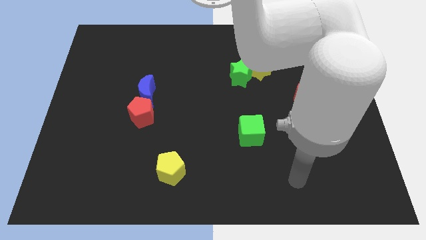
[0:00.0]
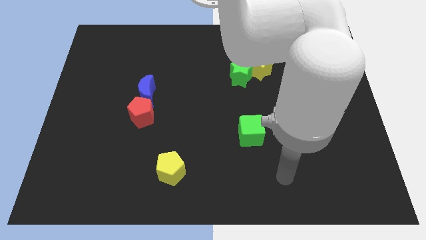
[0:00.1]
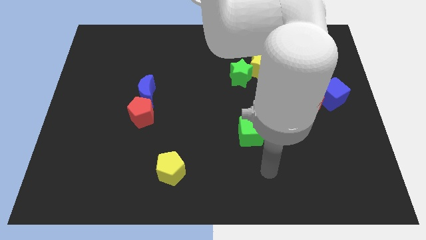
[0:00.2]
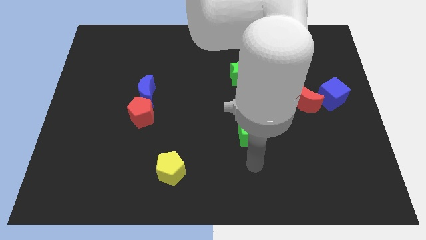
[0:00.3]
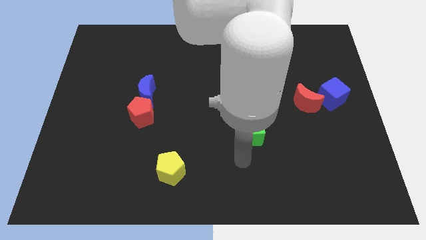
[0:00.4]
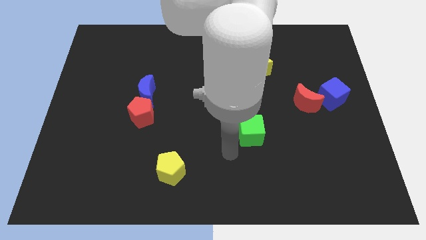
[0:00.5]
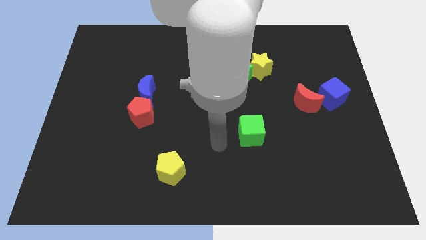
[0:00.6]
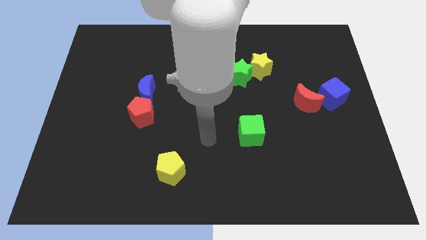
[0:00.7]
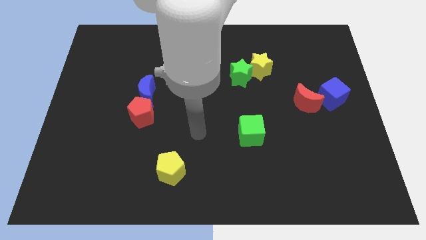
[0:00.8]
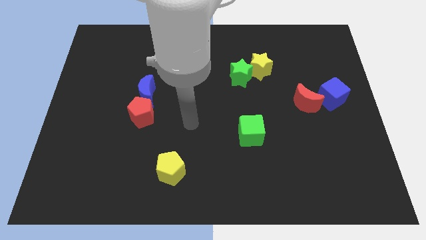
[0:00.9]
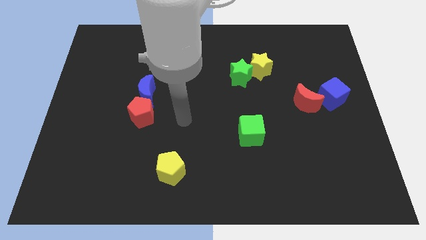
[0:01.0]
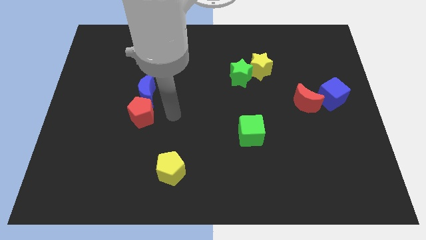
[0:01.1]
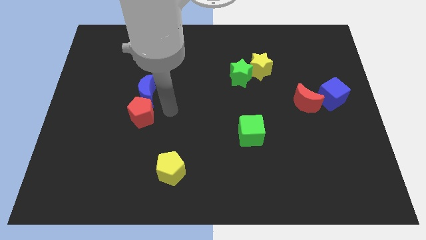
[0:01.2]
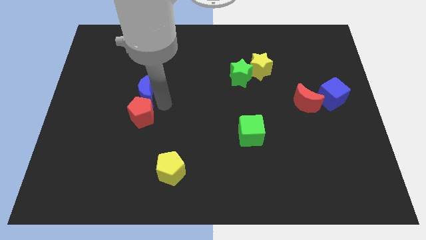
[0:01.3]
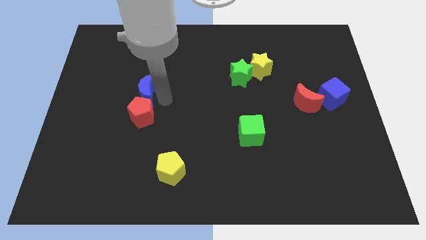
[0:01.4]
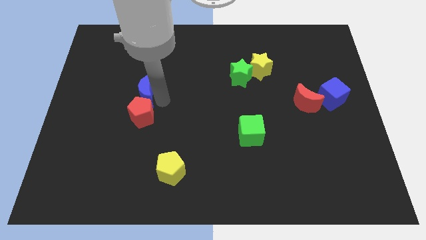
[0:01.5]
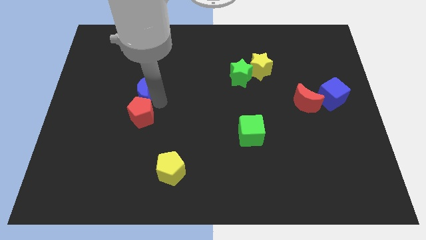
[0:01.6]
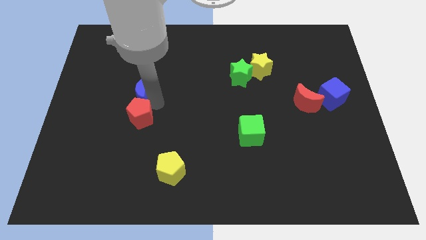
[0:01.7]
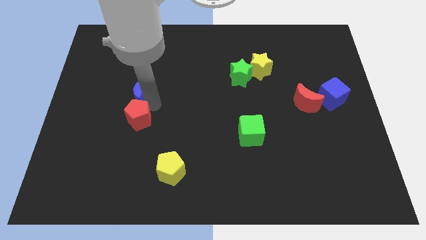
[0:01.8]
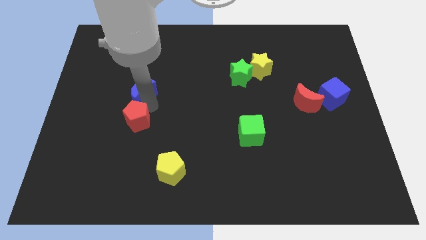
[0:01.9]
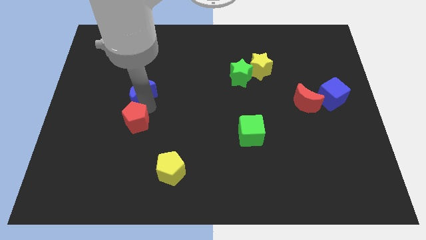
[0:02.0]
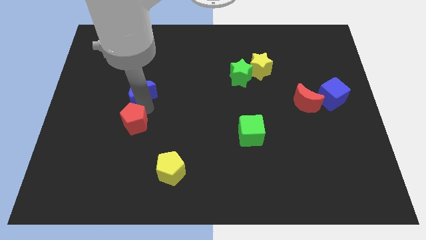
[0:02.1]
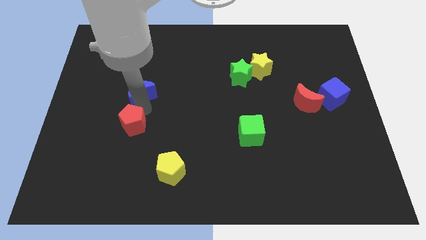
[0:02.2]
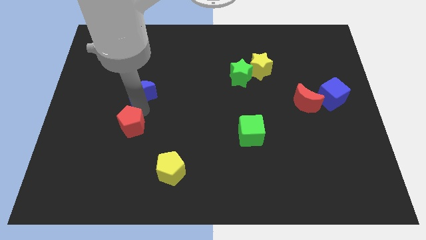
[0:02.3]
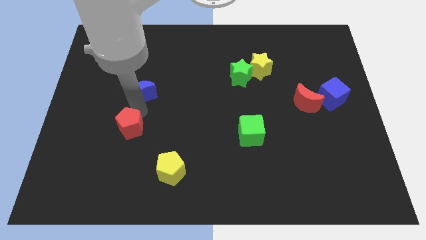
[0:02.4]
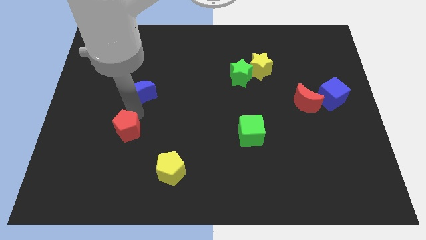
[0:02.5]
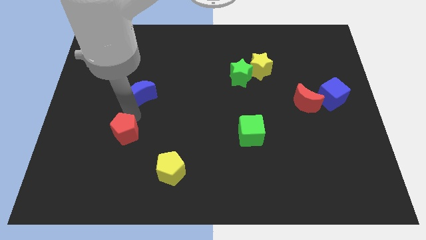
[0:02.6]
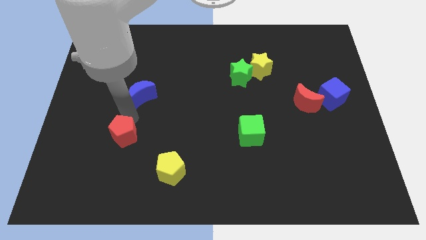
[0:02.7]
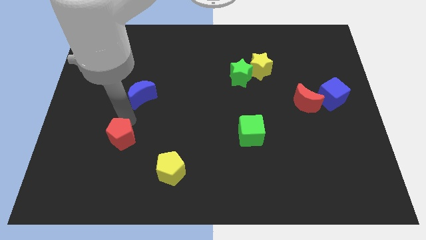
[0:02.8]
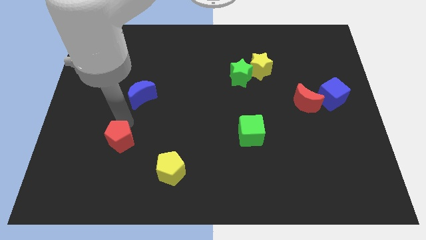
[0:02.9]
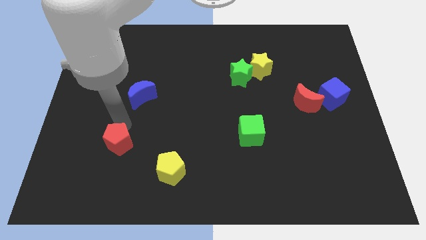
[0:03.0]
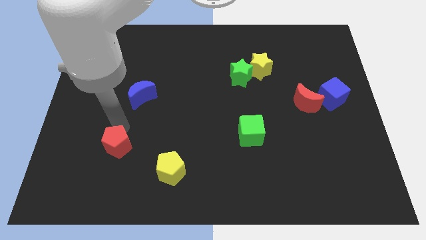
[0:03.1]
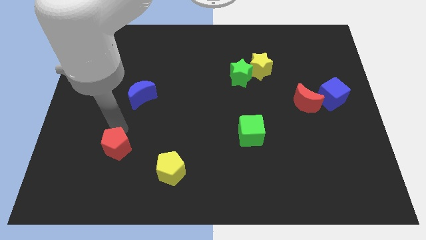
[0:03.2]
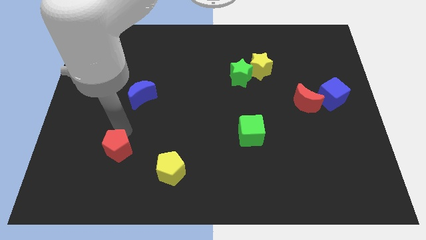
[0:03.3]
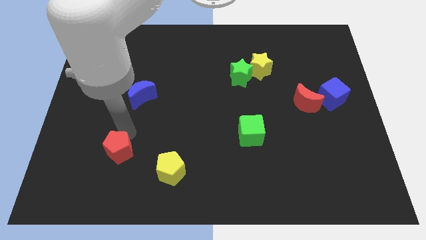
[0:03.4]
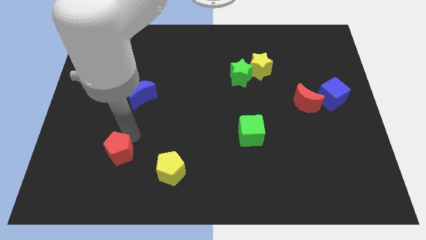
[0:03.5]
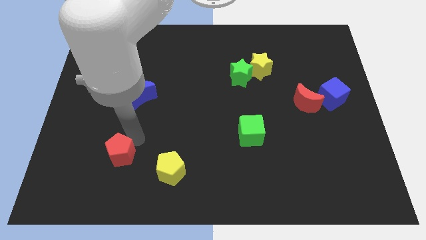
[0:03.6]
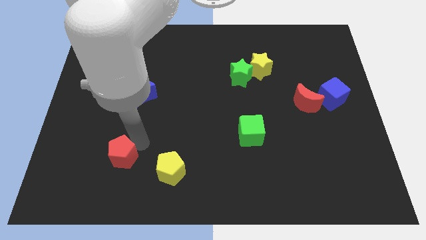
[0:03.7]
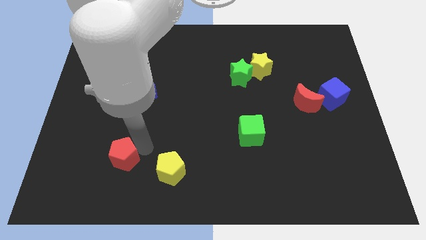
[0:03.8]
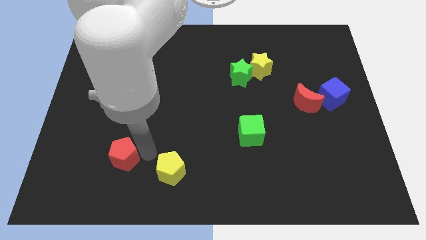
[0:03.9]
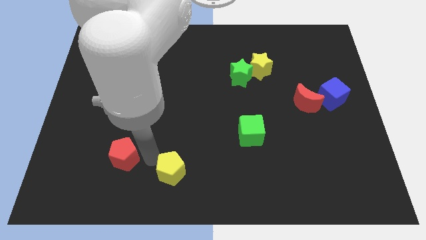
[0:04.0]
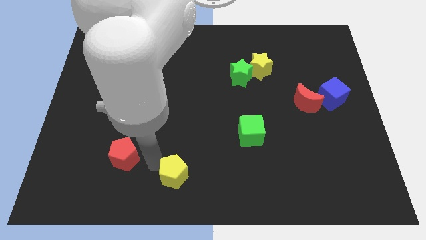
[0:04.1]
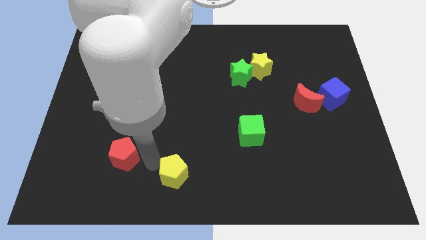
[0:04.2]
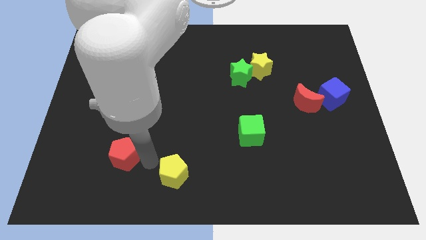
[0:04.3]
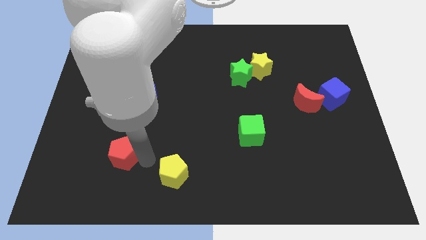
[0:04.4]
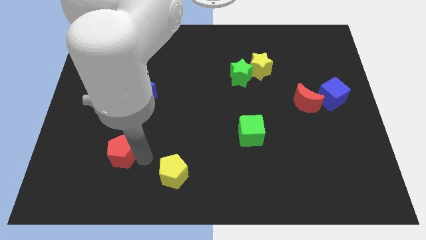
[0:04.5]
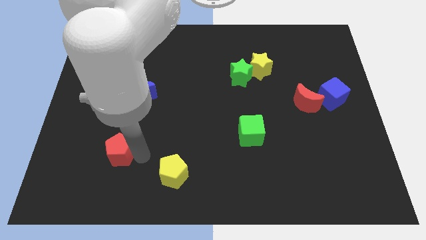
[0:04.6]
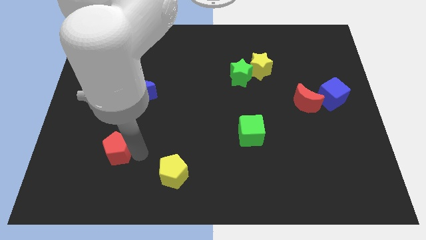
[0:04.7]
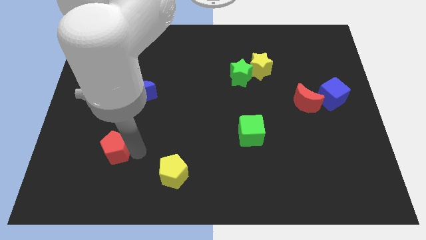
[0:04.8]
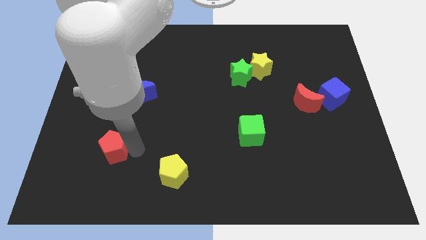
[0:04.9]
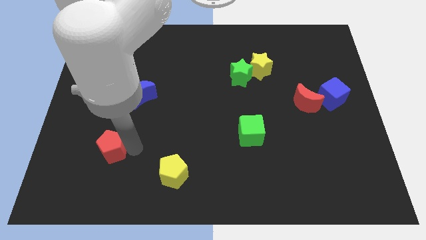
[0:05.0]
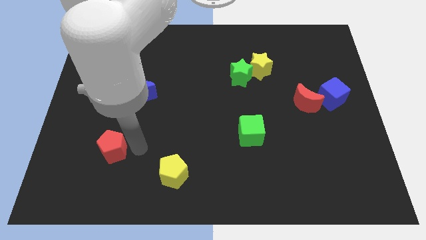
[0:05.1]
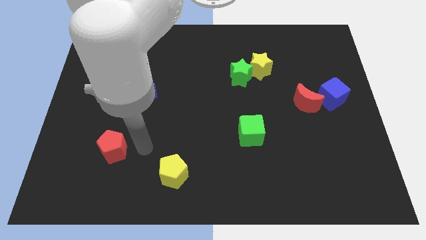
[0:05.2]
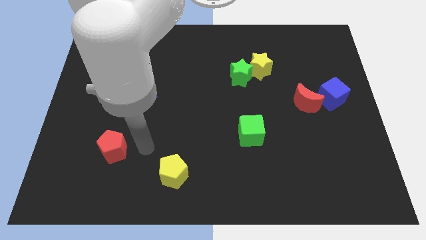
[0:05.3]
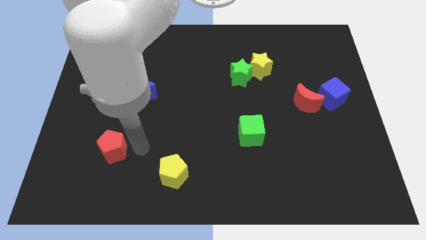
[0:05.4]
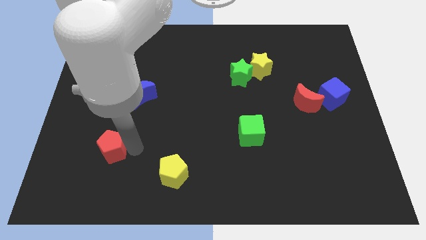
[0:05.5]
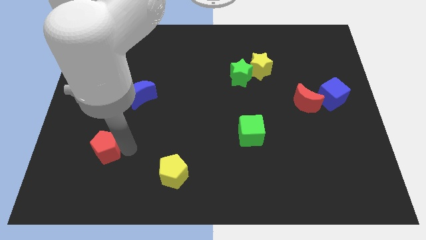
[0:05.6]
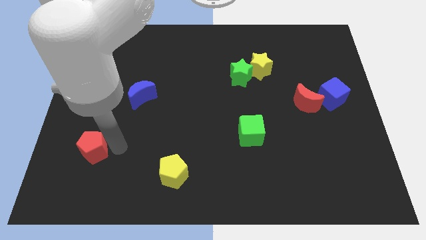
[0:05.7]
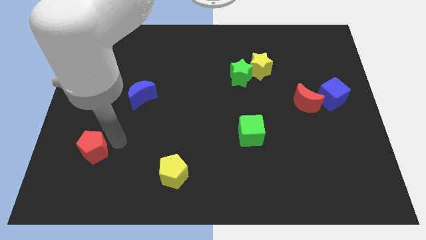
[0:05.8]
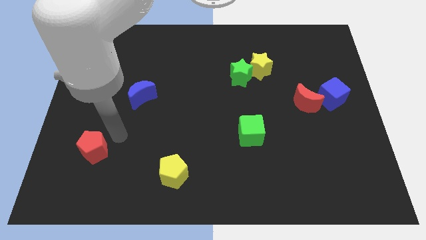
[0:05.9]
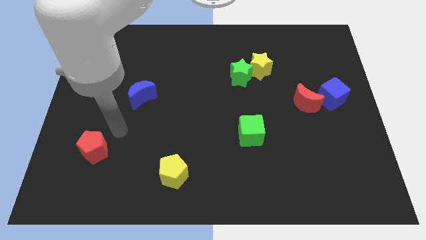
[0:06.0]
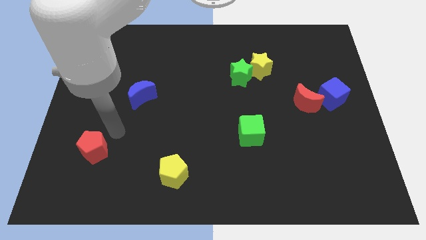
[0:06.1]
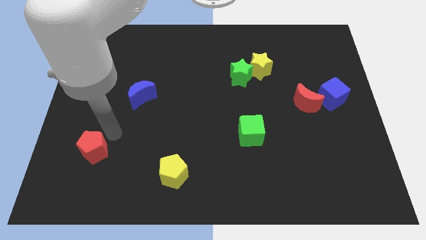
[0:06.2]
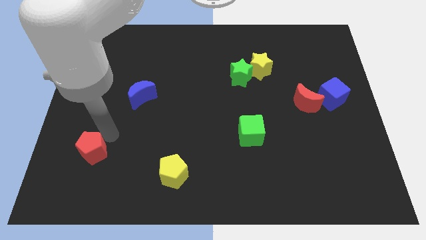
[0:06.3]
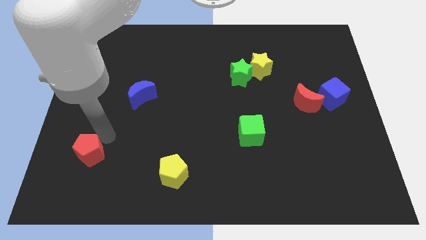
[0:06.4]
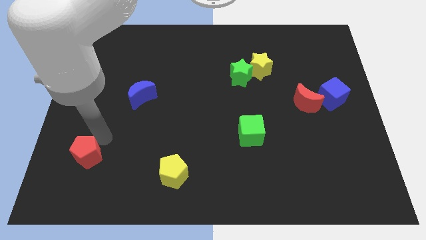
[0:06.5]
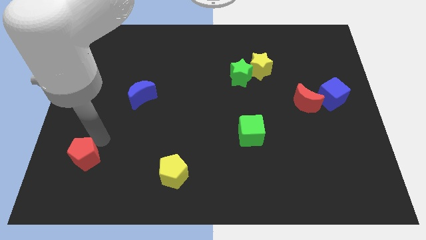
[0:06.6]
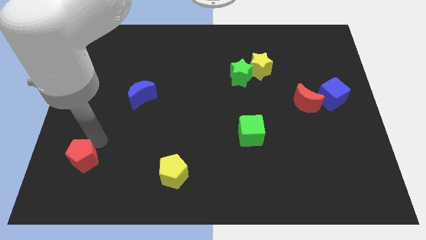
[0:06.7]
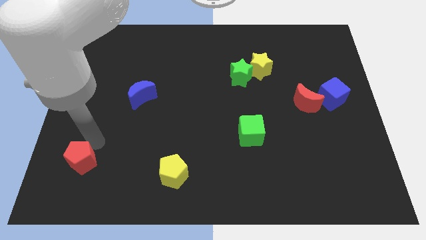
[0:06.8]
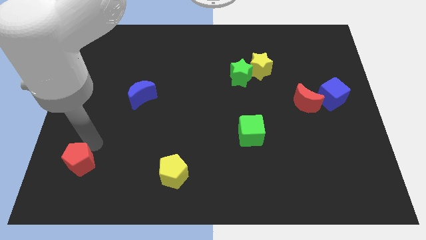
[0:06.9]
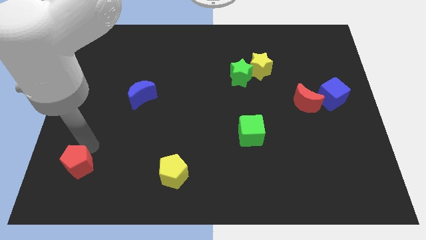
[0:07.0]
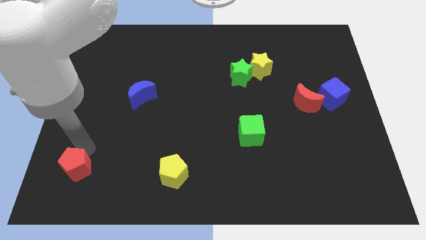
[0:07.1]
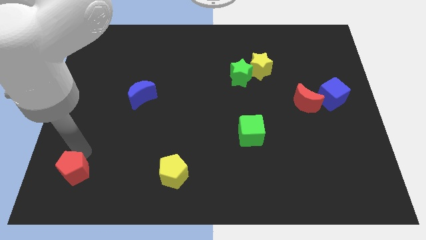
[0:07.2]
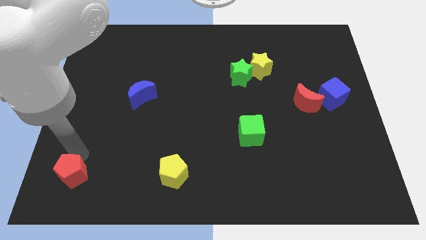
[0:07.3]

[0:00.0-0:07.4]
push the red pentagon to the bottom left of the board
